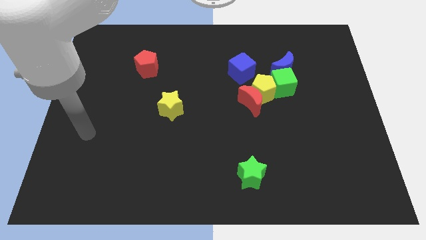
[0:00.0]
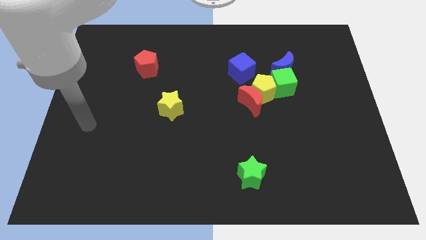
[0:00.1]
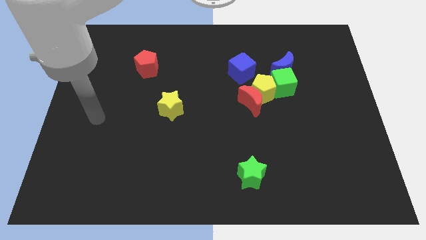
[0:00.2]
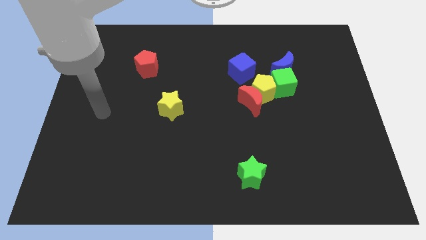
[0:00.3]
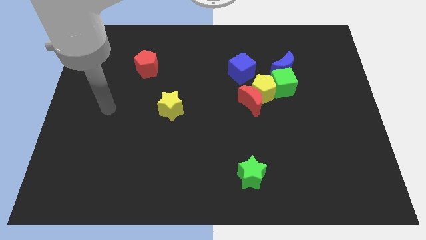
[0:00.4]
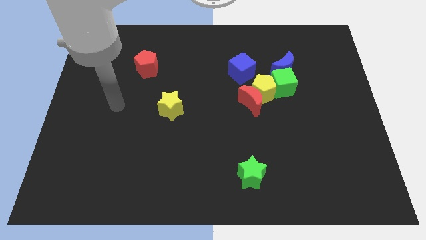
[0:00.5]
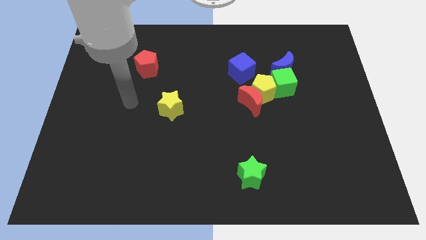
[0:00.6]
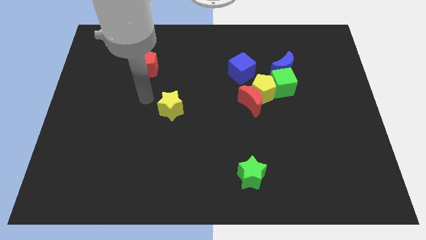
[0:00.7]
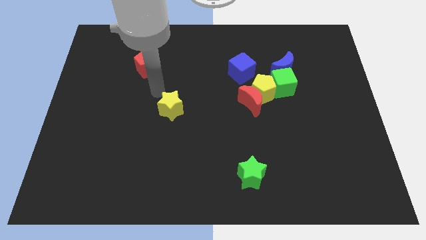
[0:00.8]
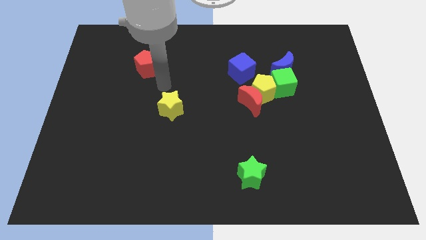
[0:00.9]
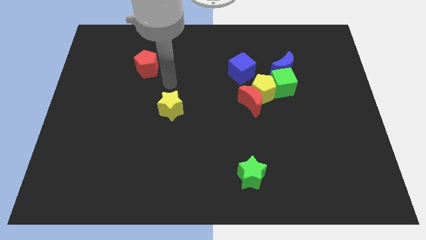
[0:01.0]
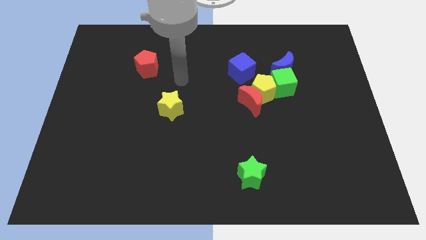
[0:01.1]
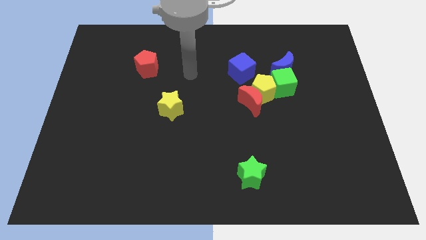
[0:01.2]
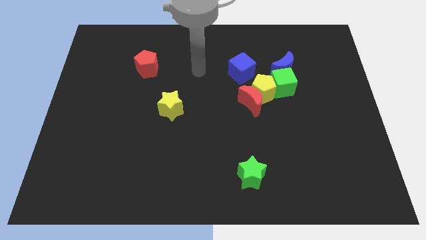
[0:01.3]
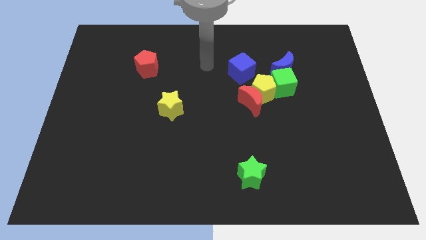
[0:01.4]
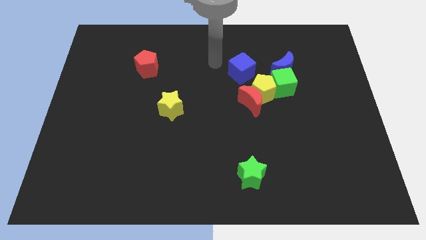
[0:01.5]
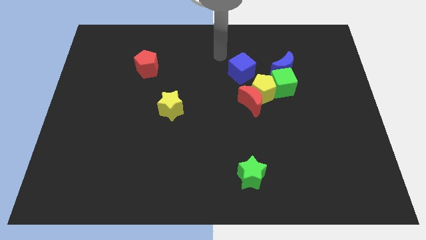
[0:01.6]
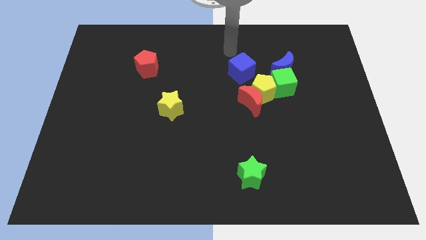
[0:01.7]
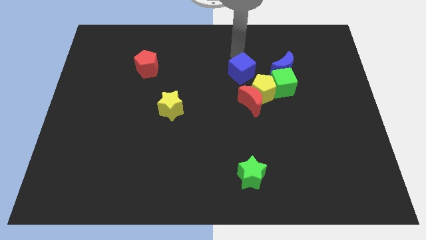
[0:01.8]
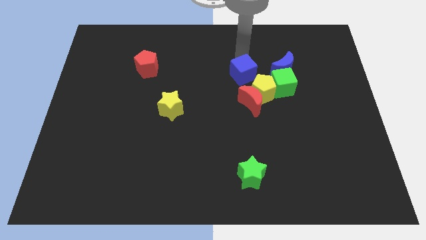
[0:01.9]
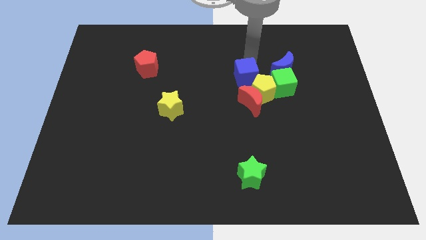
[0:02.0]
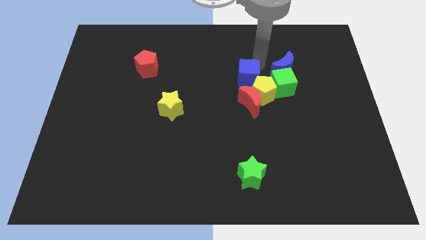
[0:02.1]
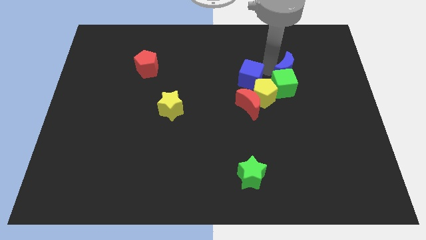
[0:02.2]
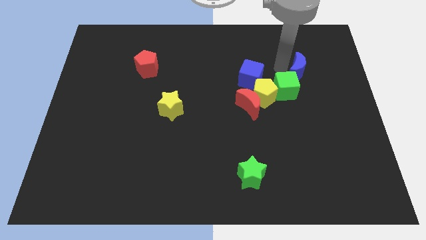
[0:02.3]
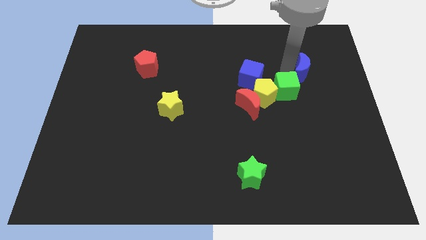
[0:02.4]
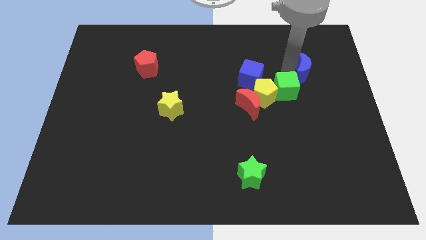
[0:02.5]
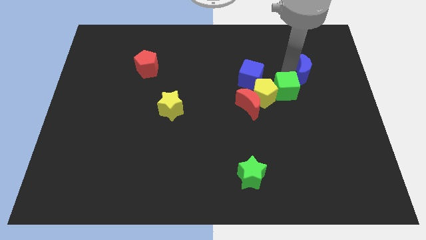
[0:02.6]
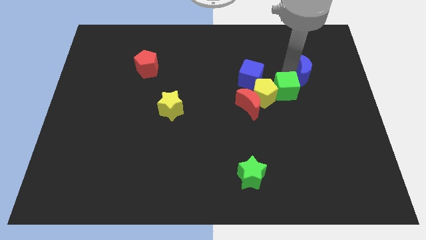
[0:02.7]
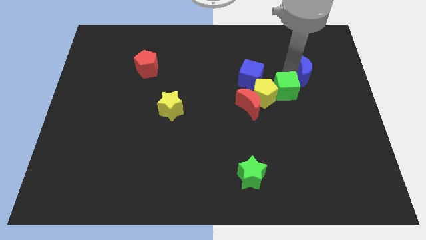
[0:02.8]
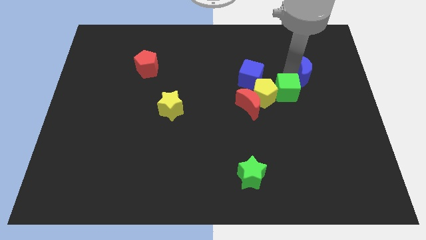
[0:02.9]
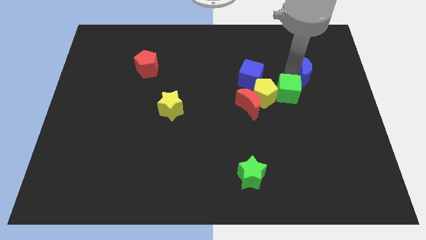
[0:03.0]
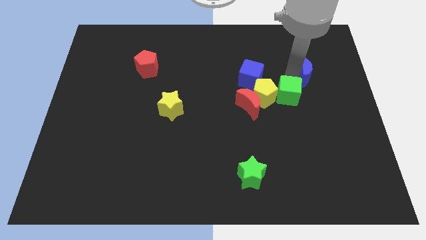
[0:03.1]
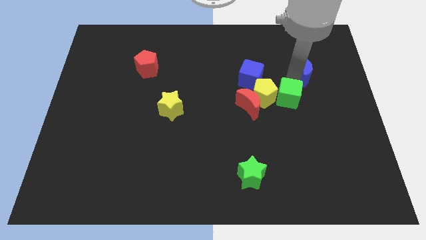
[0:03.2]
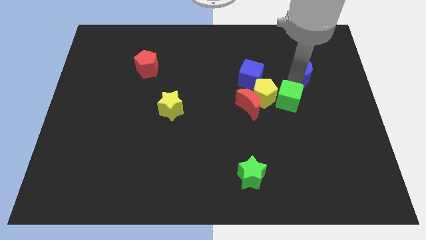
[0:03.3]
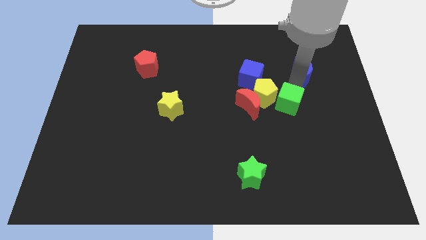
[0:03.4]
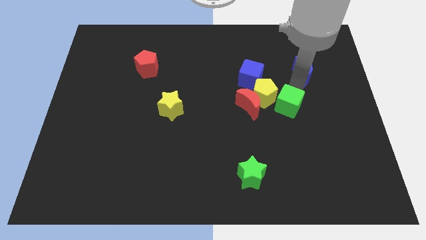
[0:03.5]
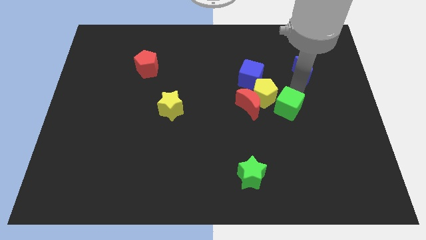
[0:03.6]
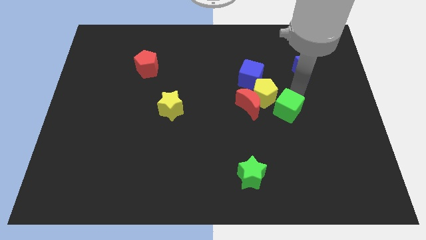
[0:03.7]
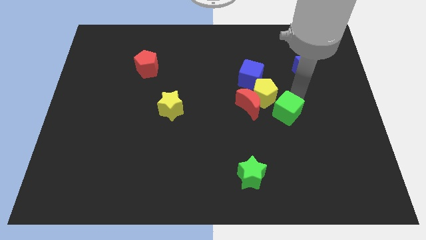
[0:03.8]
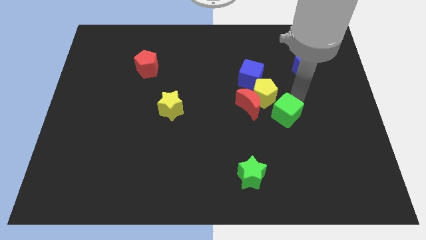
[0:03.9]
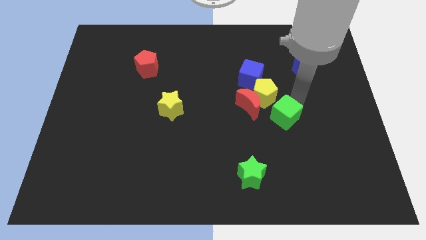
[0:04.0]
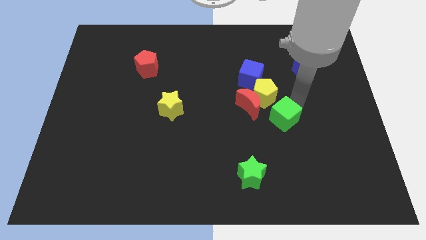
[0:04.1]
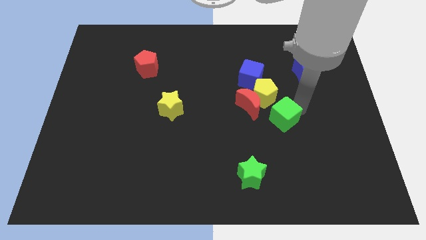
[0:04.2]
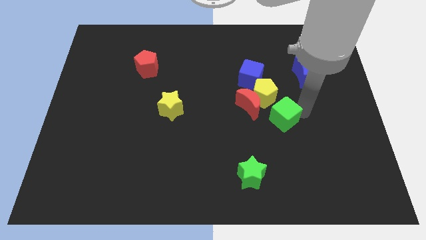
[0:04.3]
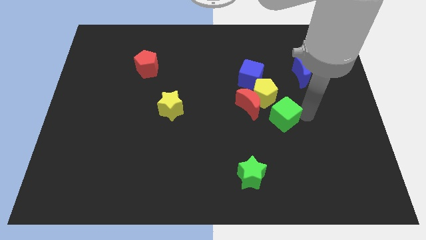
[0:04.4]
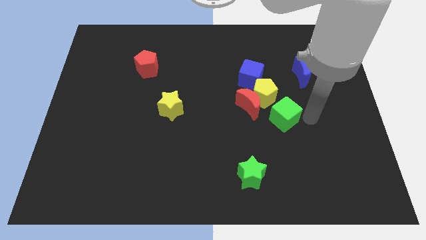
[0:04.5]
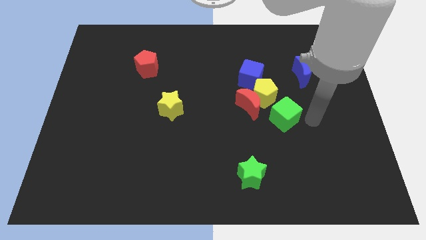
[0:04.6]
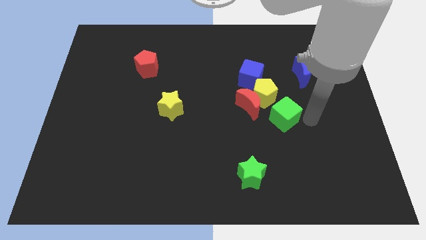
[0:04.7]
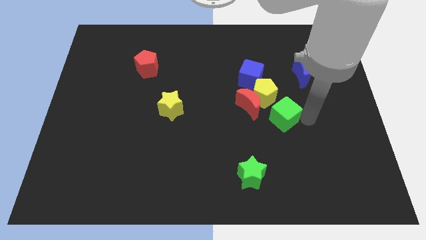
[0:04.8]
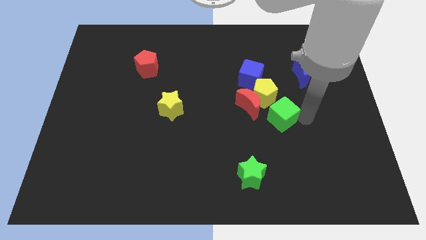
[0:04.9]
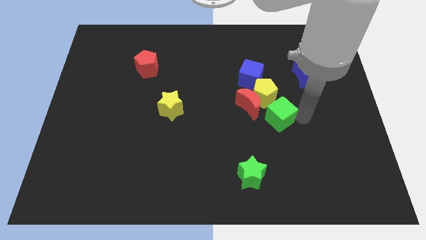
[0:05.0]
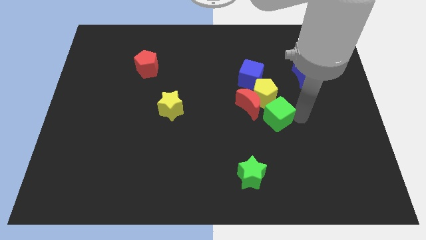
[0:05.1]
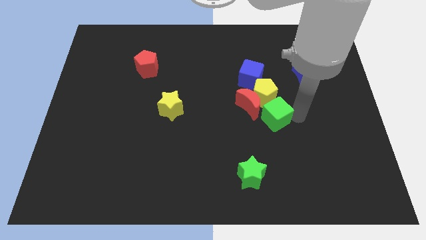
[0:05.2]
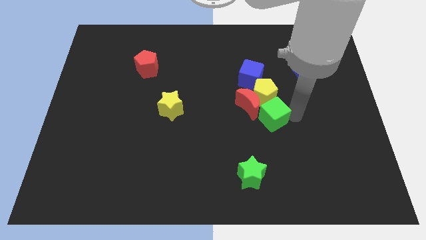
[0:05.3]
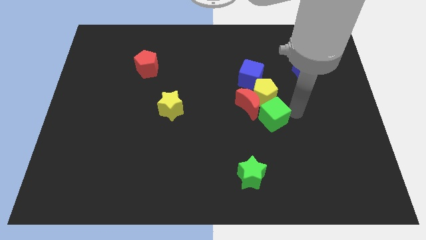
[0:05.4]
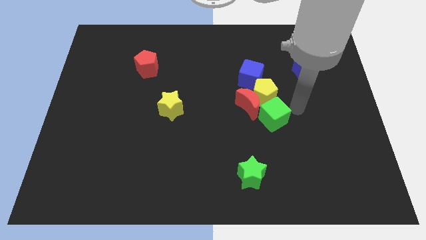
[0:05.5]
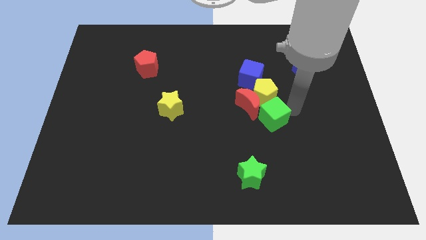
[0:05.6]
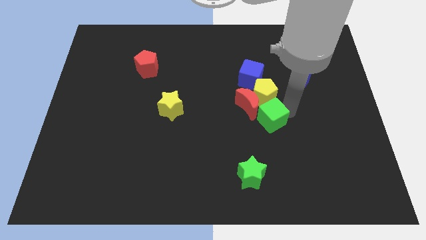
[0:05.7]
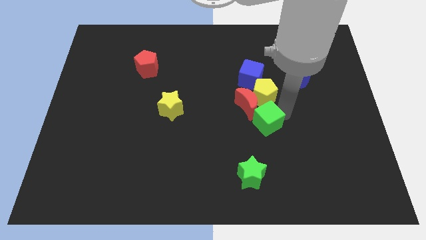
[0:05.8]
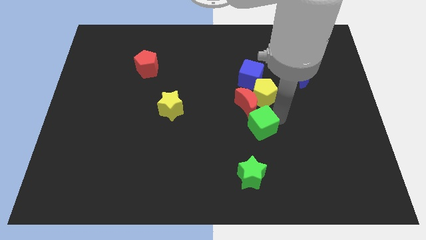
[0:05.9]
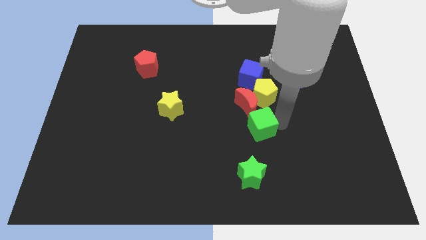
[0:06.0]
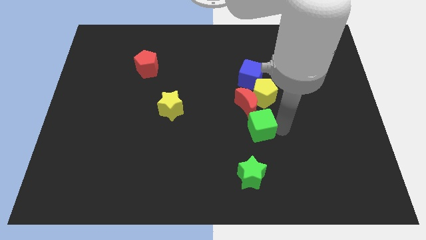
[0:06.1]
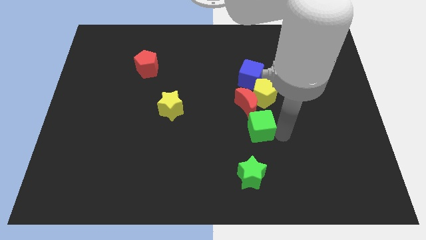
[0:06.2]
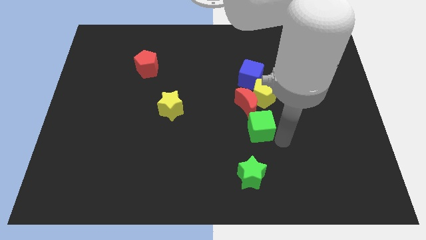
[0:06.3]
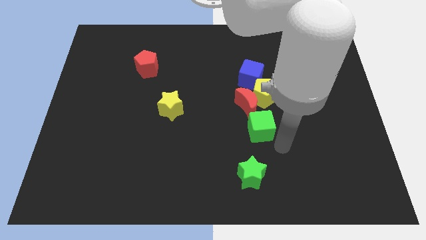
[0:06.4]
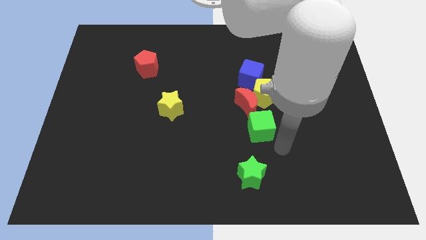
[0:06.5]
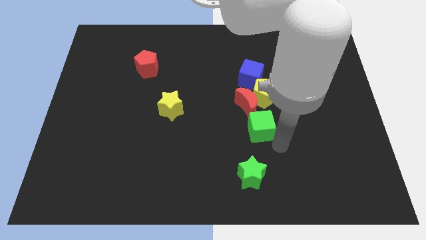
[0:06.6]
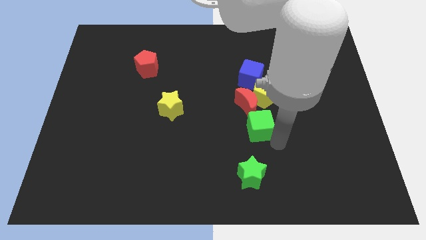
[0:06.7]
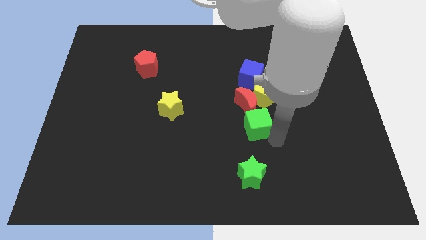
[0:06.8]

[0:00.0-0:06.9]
slide the green cube to the bottom left side of the yellow pentagon

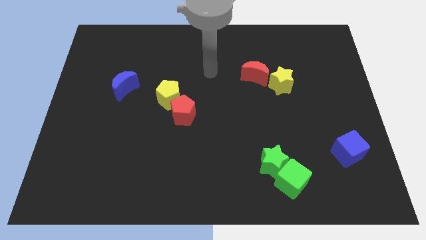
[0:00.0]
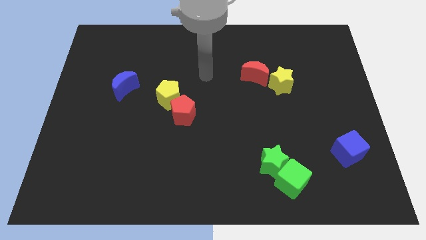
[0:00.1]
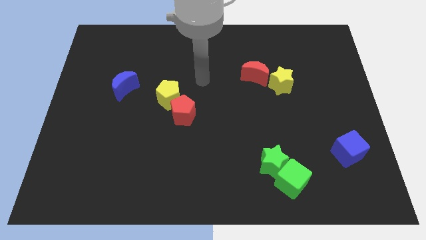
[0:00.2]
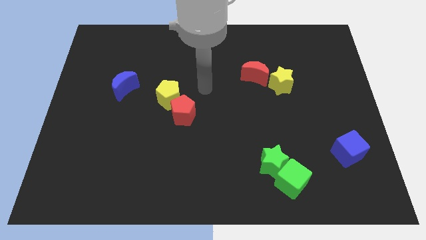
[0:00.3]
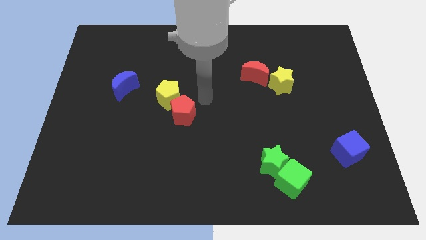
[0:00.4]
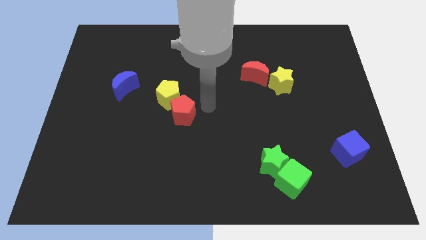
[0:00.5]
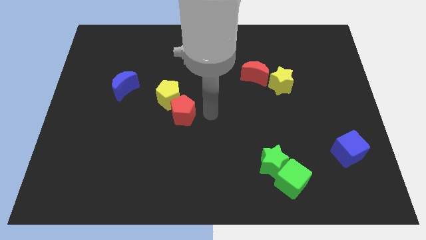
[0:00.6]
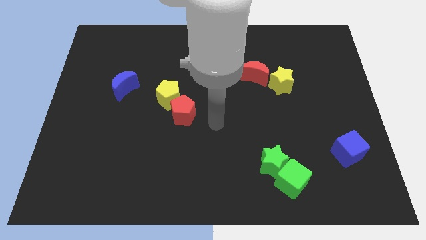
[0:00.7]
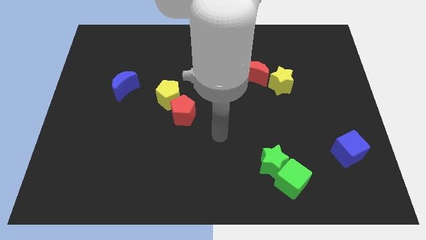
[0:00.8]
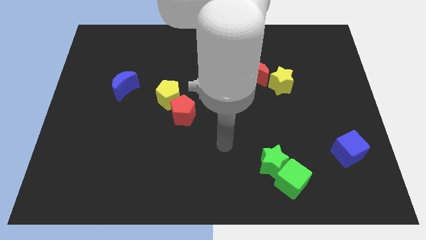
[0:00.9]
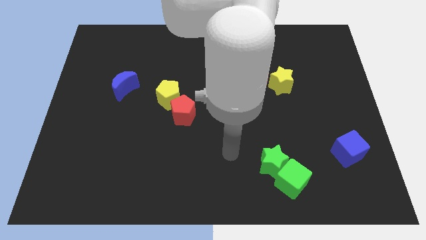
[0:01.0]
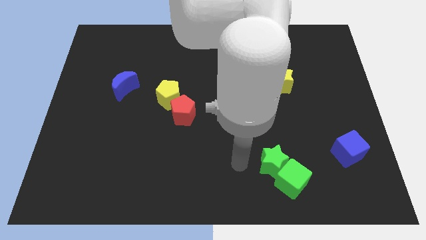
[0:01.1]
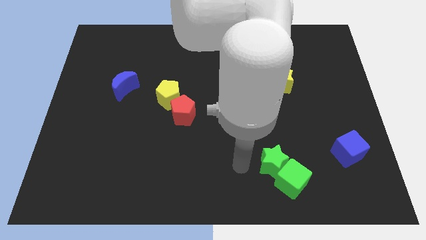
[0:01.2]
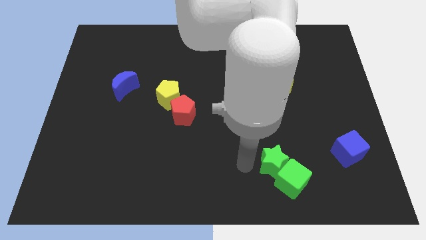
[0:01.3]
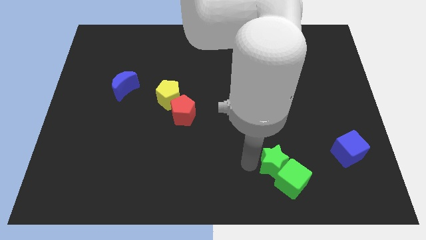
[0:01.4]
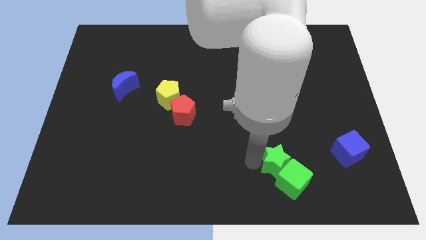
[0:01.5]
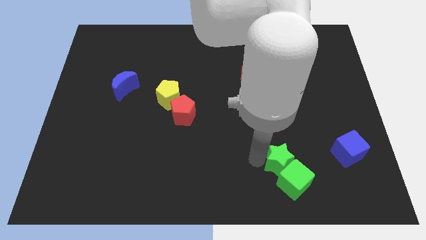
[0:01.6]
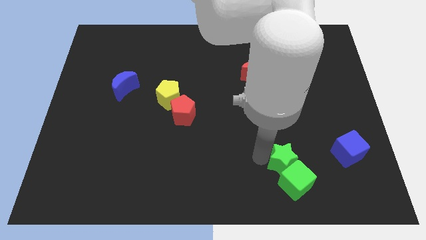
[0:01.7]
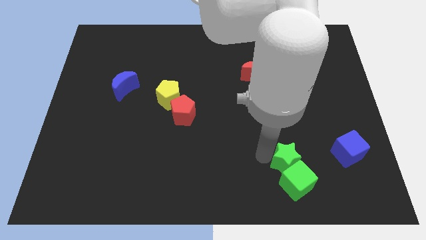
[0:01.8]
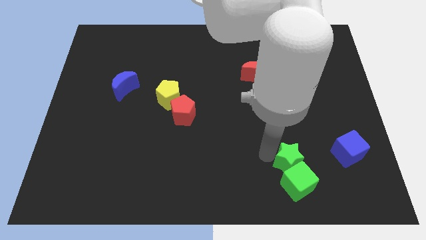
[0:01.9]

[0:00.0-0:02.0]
slide the green star to the top right side of the green cube
